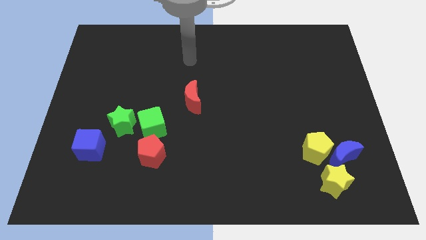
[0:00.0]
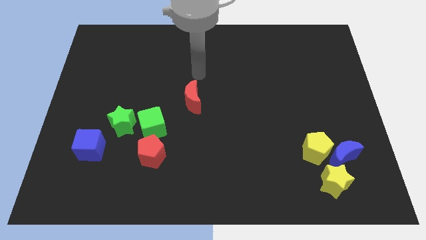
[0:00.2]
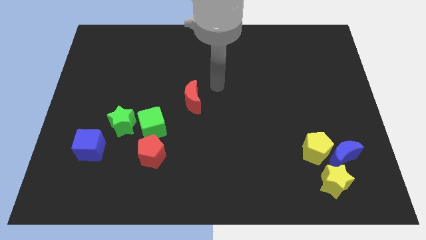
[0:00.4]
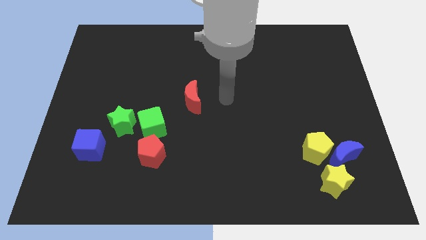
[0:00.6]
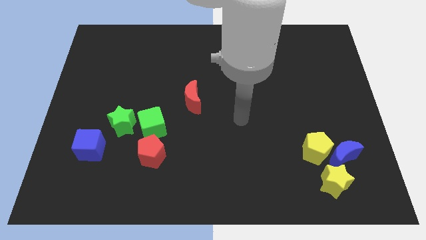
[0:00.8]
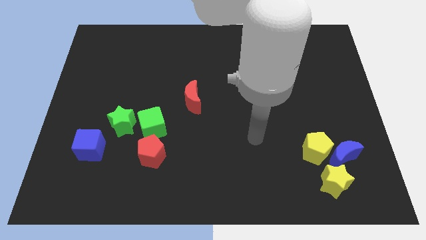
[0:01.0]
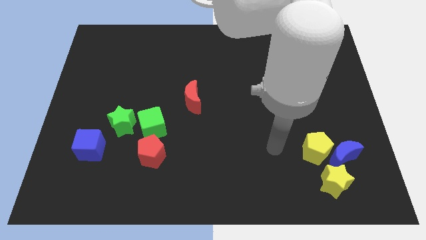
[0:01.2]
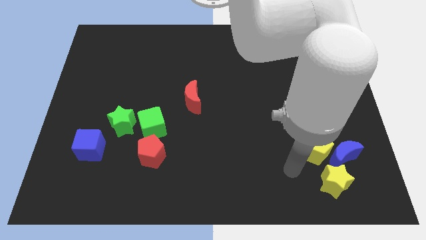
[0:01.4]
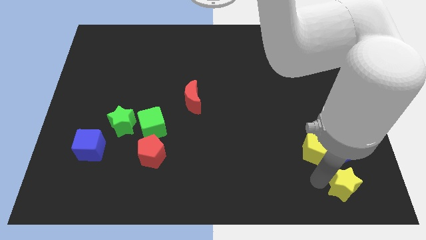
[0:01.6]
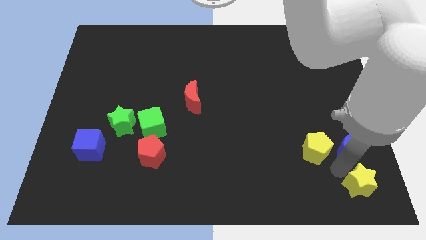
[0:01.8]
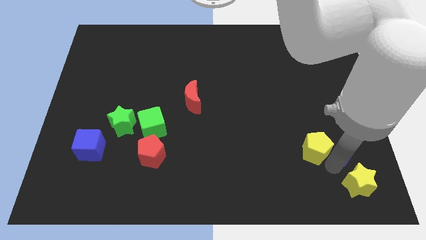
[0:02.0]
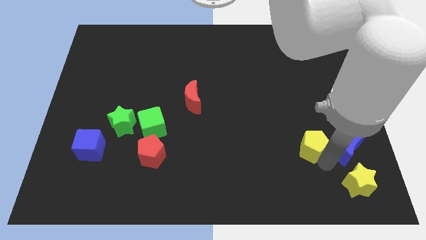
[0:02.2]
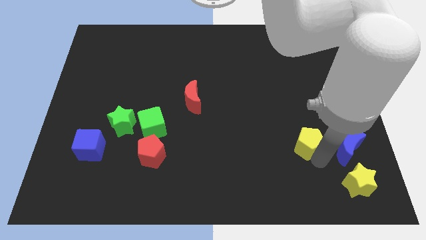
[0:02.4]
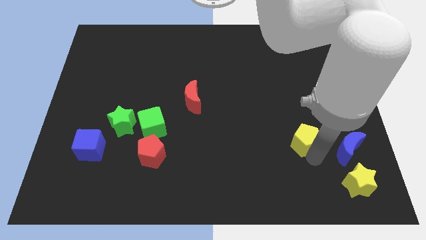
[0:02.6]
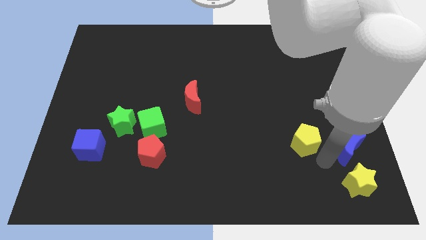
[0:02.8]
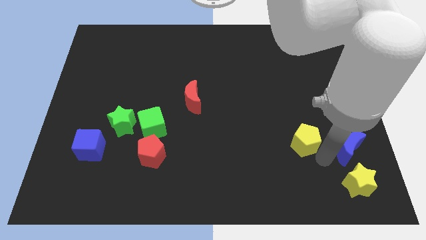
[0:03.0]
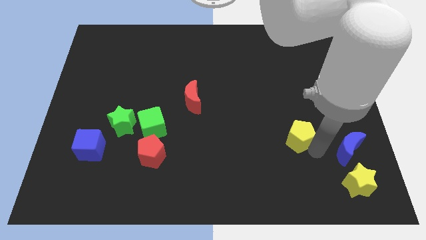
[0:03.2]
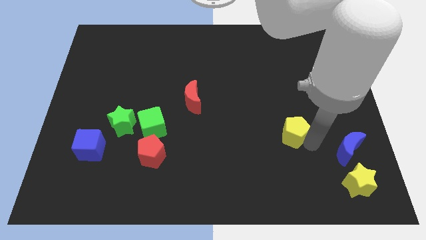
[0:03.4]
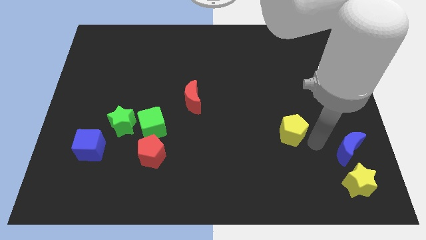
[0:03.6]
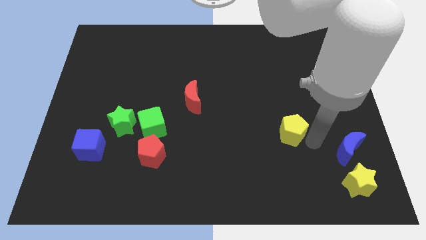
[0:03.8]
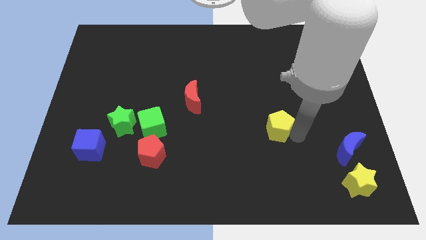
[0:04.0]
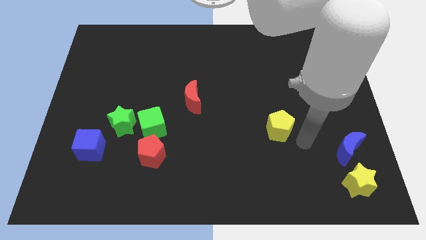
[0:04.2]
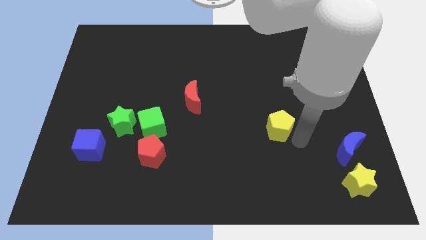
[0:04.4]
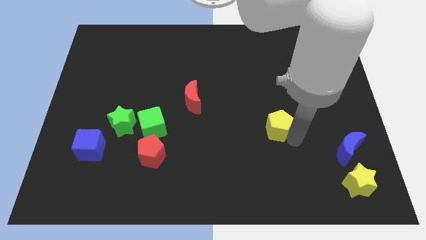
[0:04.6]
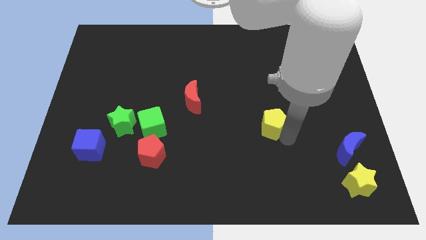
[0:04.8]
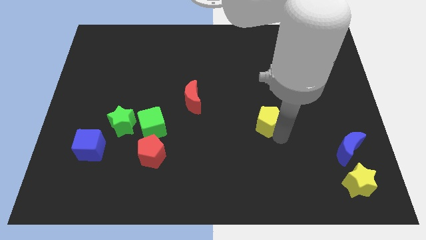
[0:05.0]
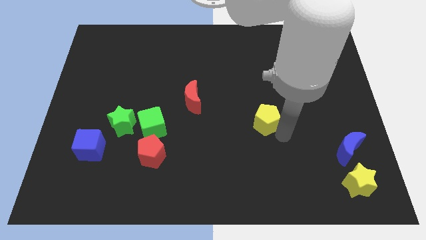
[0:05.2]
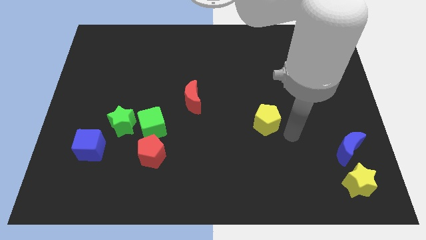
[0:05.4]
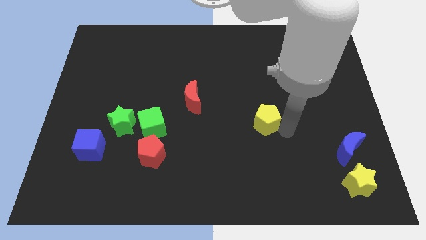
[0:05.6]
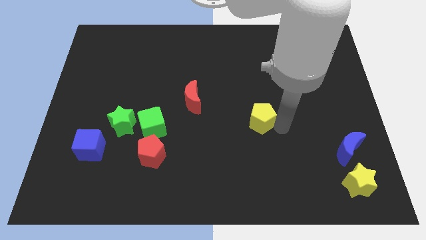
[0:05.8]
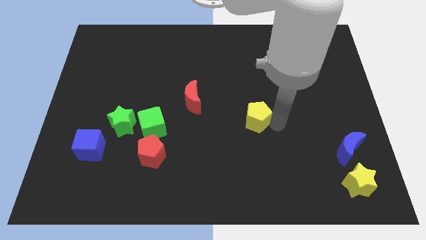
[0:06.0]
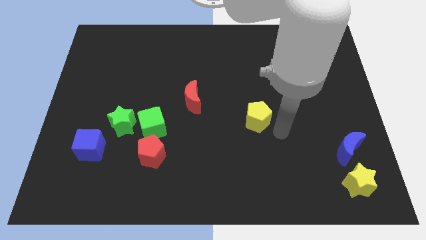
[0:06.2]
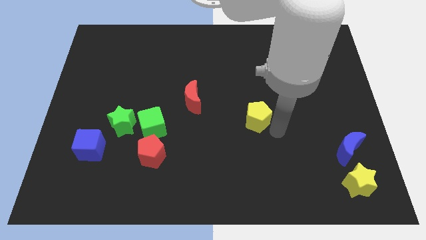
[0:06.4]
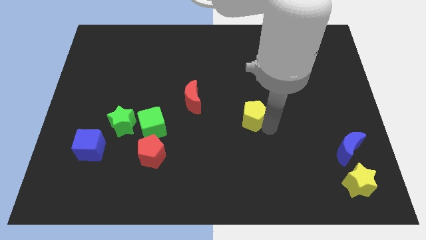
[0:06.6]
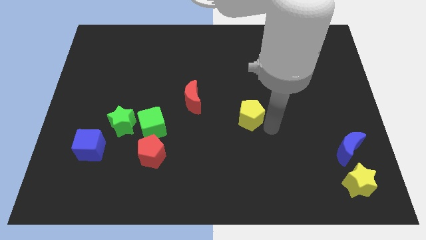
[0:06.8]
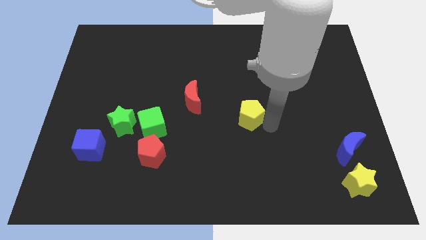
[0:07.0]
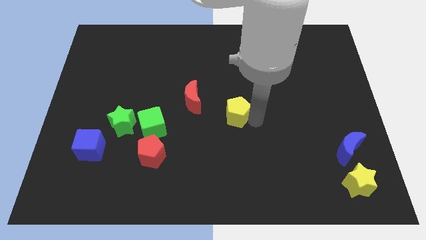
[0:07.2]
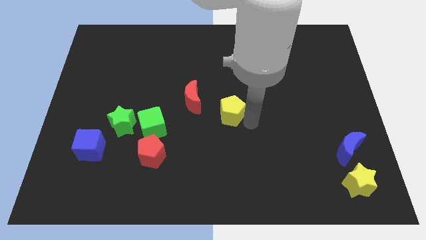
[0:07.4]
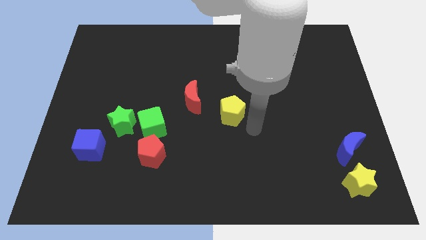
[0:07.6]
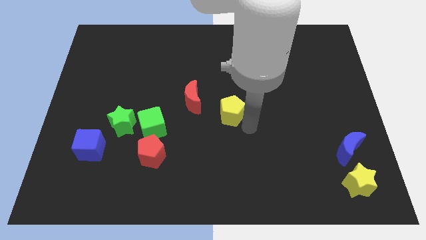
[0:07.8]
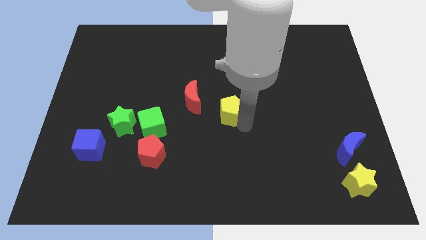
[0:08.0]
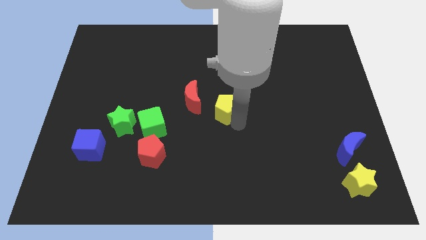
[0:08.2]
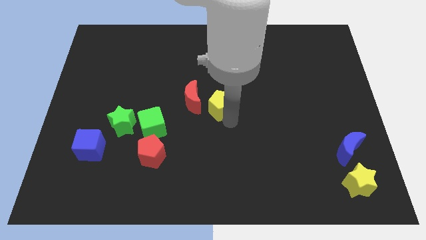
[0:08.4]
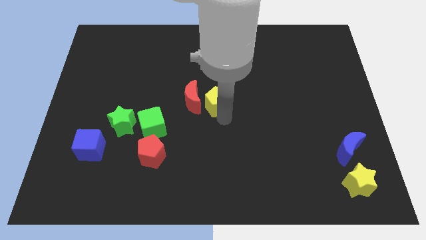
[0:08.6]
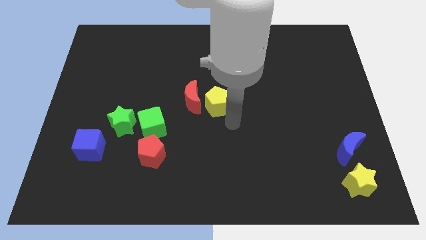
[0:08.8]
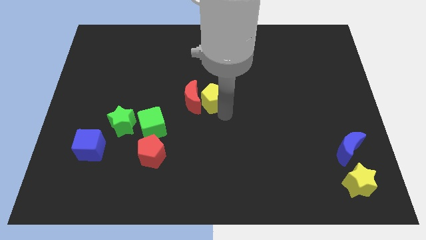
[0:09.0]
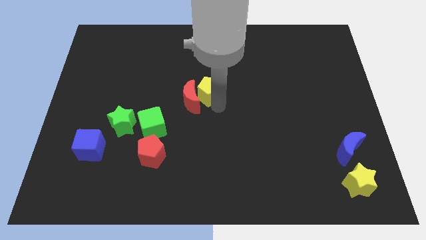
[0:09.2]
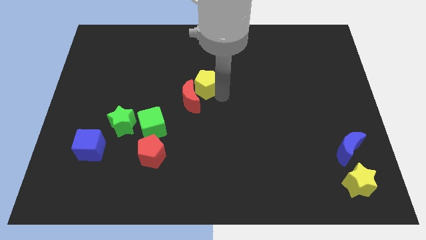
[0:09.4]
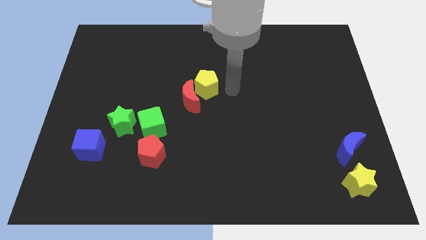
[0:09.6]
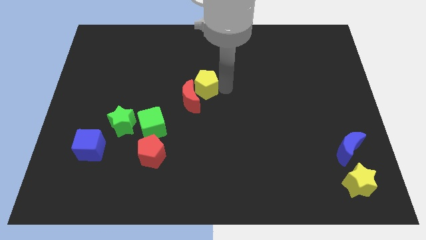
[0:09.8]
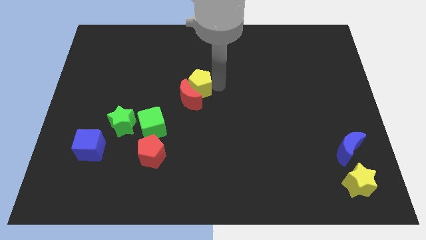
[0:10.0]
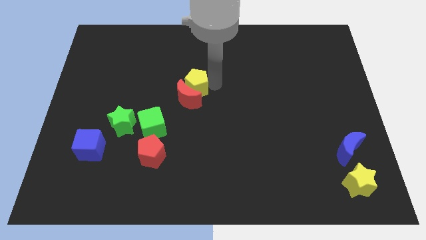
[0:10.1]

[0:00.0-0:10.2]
move the yellow pentagon diagonally up and to the left of the red moon

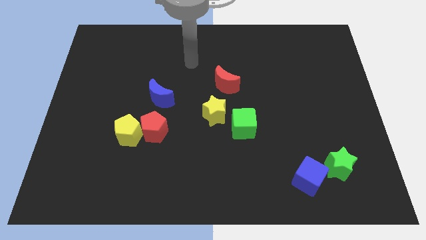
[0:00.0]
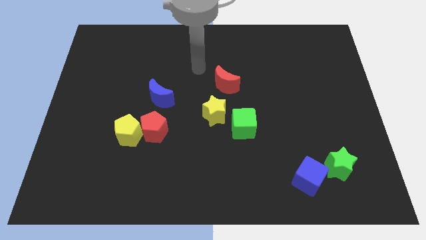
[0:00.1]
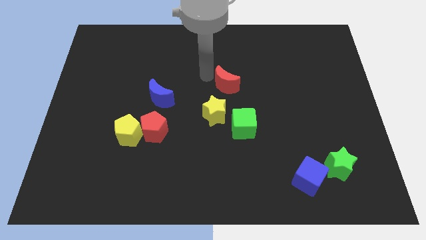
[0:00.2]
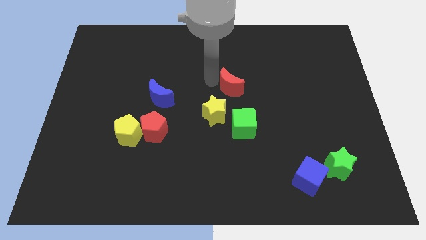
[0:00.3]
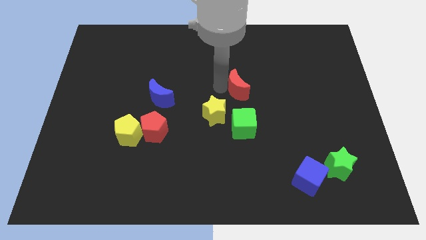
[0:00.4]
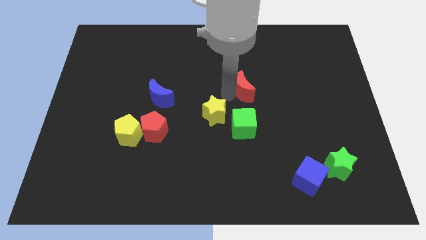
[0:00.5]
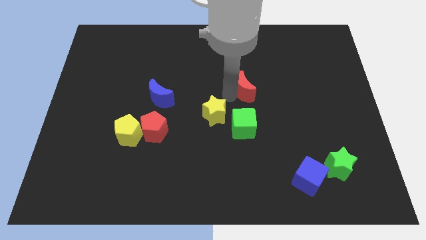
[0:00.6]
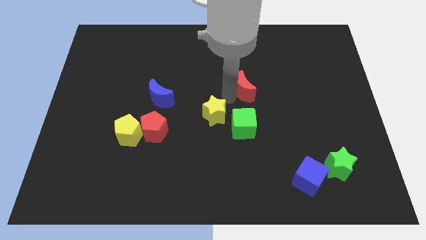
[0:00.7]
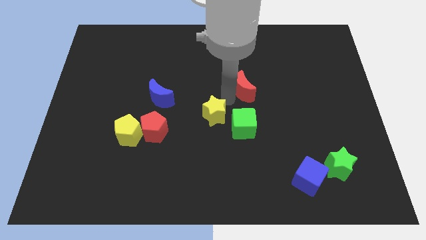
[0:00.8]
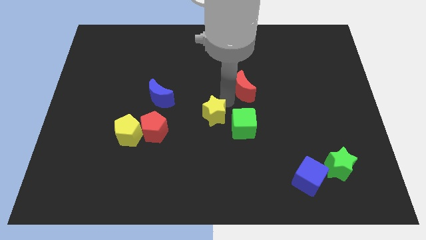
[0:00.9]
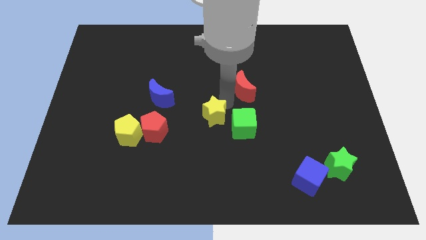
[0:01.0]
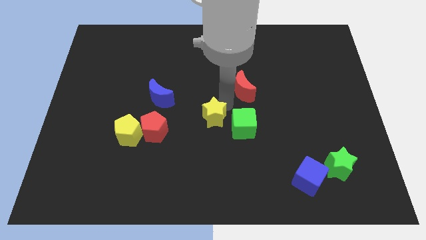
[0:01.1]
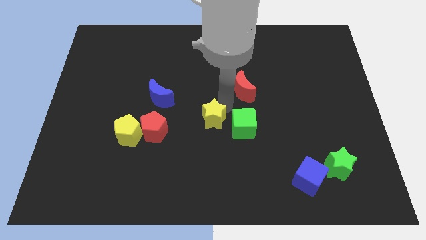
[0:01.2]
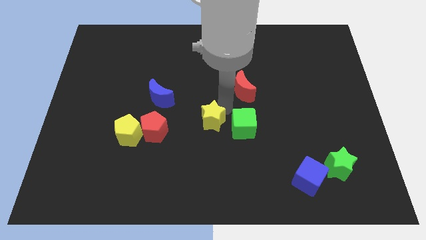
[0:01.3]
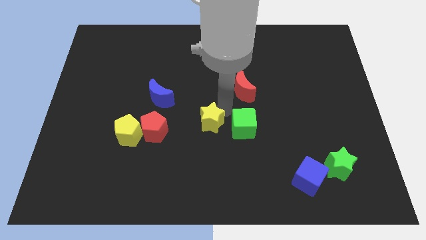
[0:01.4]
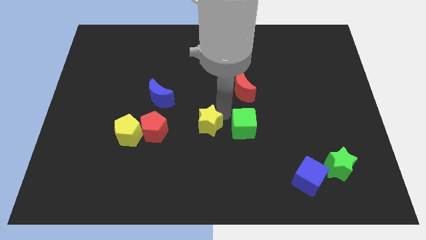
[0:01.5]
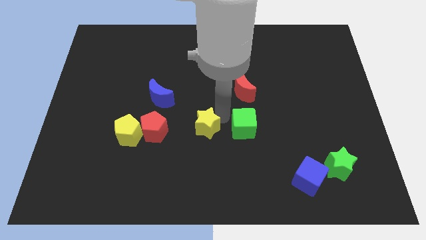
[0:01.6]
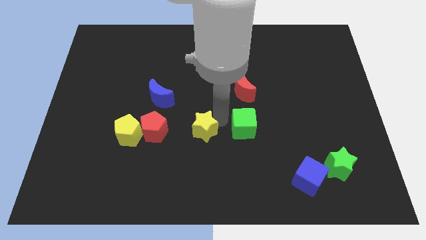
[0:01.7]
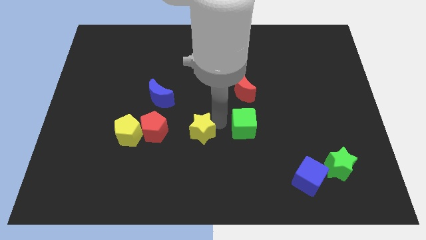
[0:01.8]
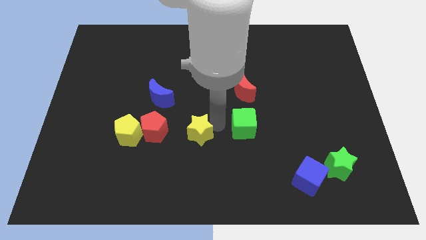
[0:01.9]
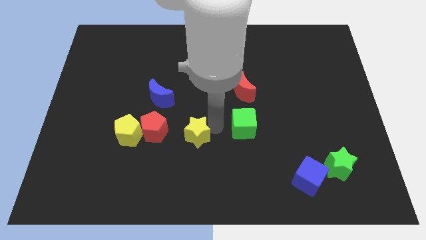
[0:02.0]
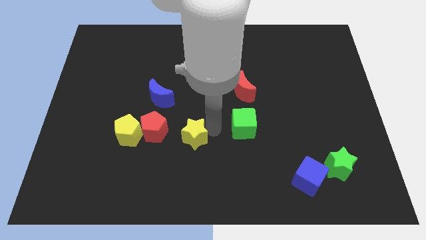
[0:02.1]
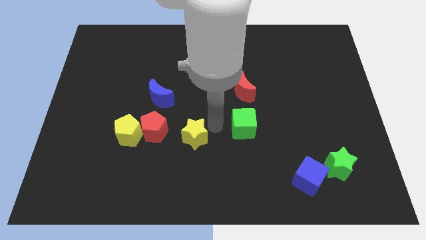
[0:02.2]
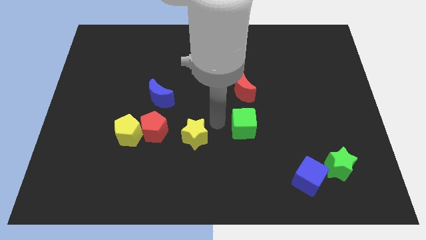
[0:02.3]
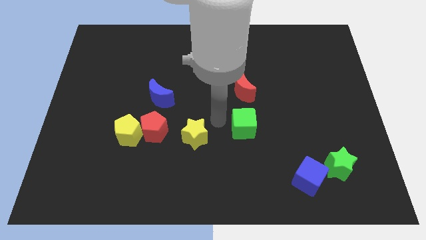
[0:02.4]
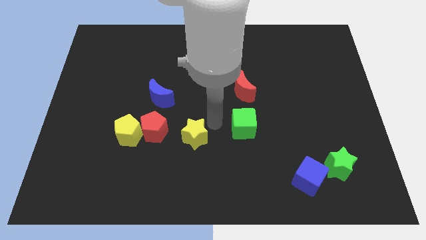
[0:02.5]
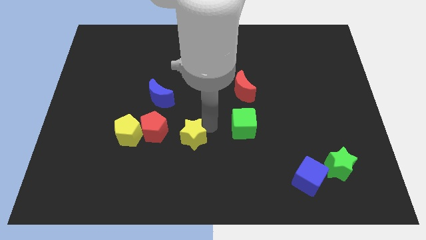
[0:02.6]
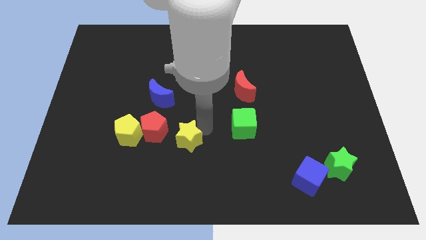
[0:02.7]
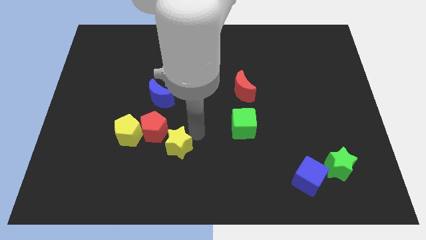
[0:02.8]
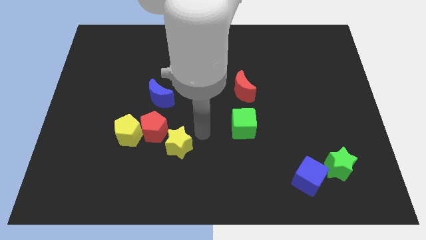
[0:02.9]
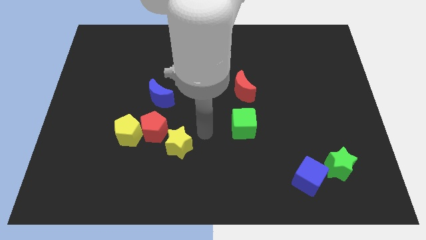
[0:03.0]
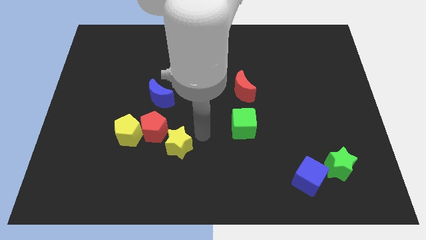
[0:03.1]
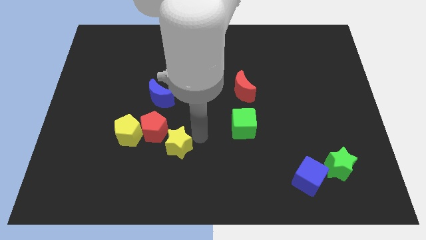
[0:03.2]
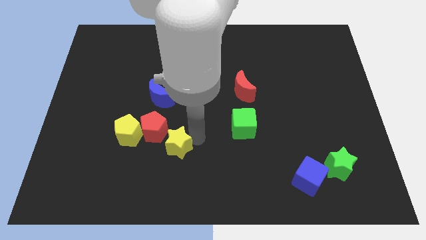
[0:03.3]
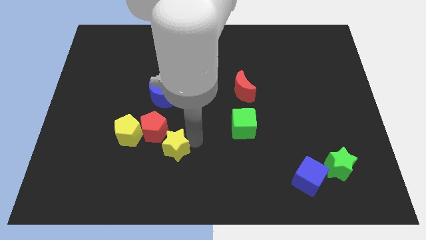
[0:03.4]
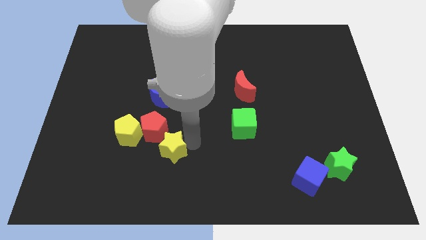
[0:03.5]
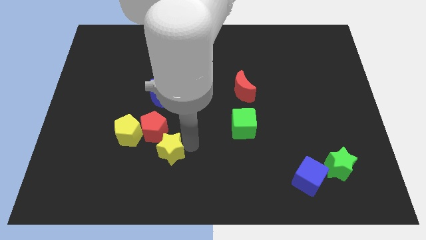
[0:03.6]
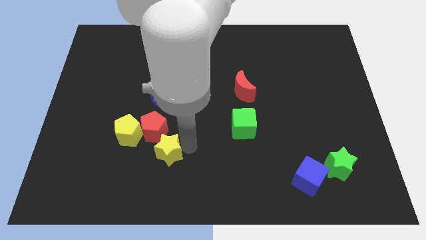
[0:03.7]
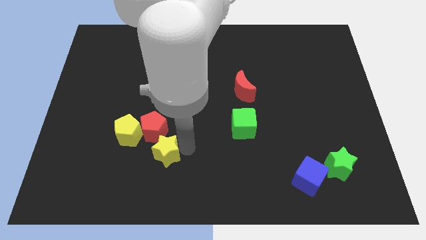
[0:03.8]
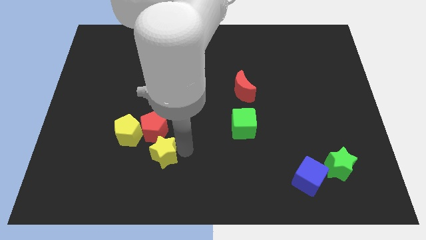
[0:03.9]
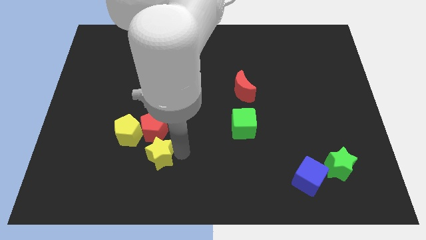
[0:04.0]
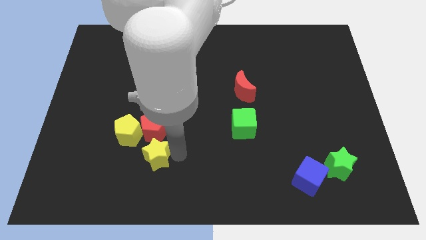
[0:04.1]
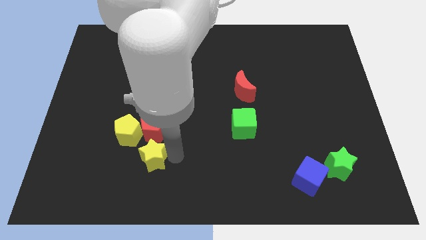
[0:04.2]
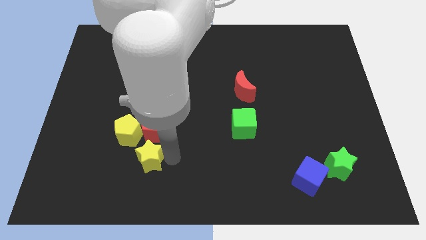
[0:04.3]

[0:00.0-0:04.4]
put the yellow star to the bottom left of the red pentagon
